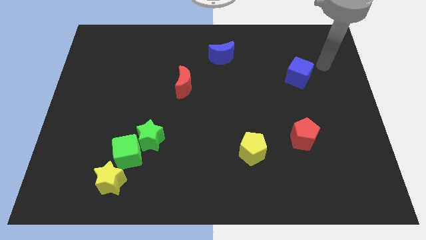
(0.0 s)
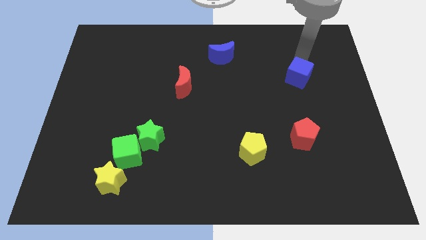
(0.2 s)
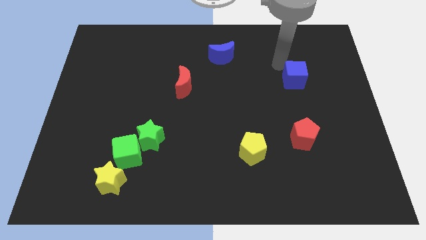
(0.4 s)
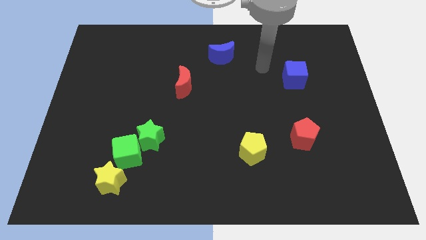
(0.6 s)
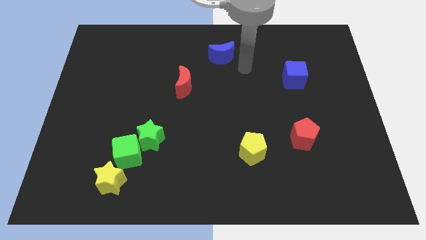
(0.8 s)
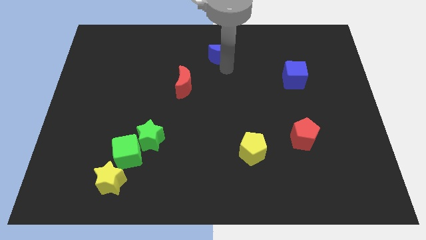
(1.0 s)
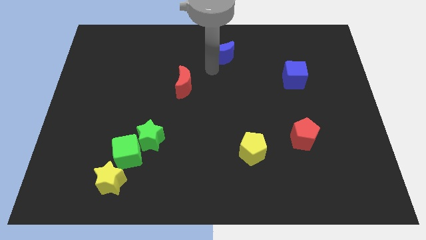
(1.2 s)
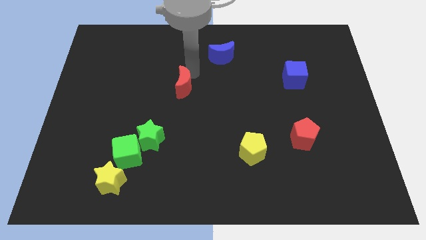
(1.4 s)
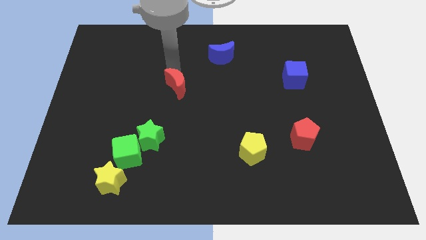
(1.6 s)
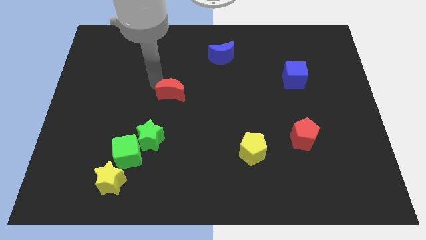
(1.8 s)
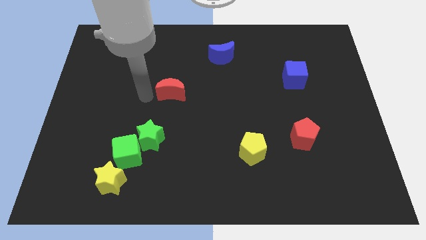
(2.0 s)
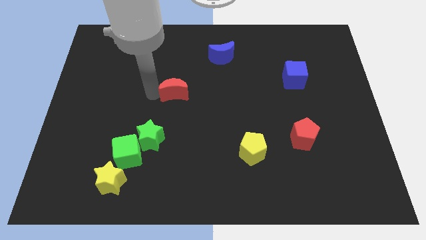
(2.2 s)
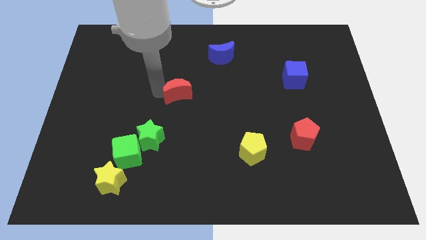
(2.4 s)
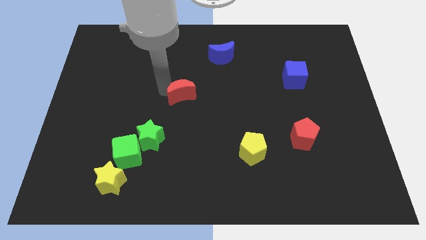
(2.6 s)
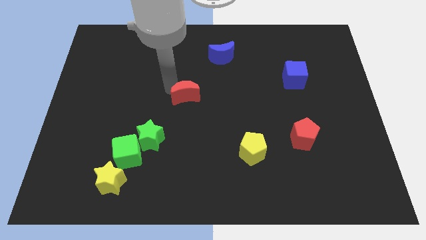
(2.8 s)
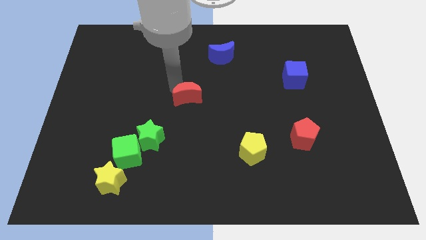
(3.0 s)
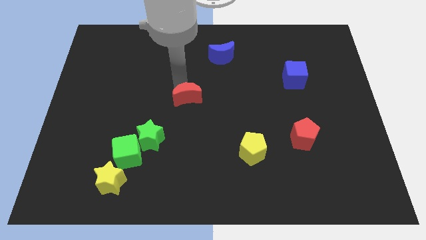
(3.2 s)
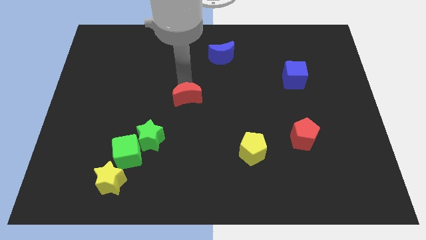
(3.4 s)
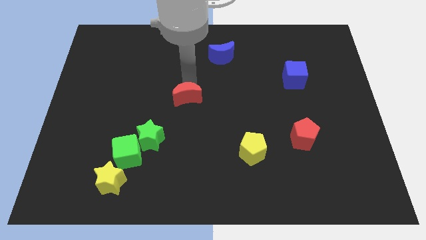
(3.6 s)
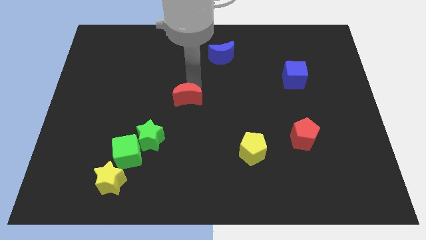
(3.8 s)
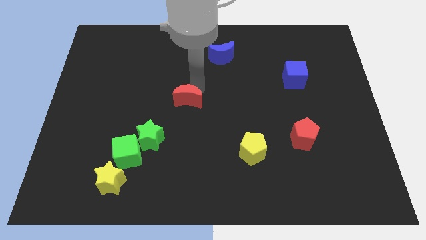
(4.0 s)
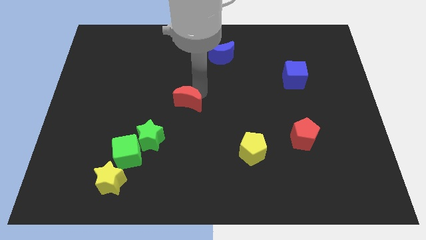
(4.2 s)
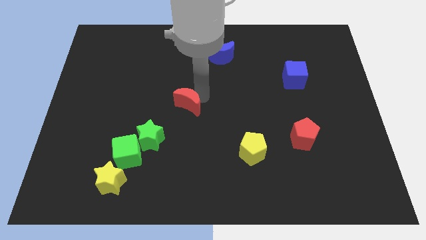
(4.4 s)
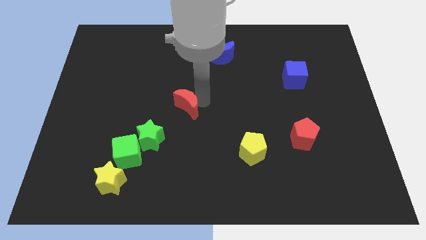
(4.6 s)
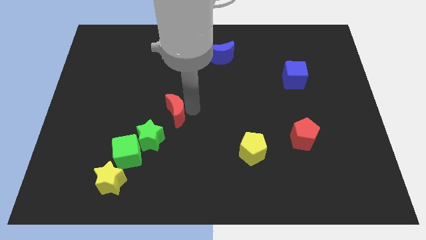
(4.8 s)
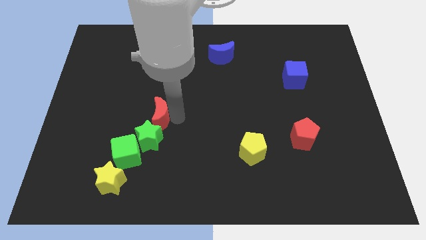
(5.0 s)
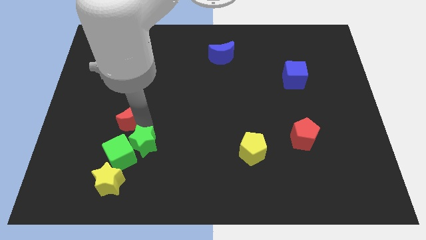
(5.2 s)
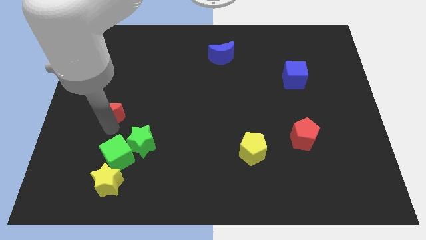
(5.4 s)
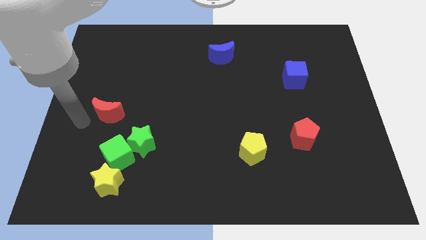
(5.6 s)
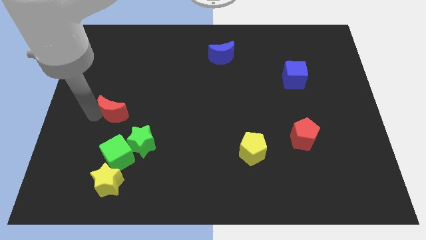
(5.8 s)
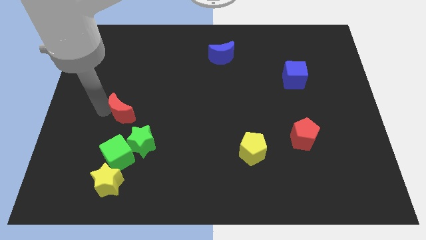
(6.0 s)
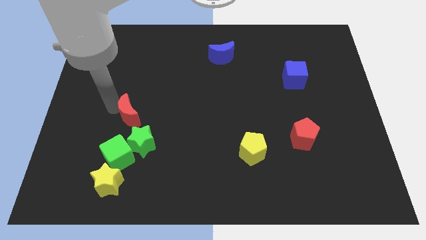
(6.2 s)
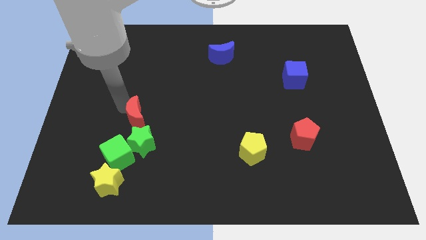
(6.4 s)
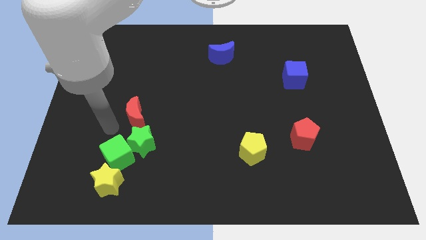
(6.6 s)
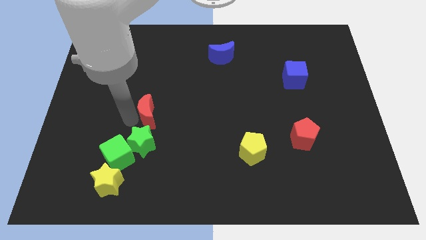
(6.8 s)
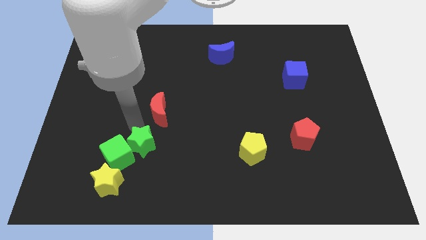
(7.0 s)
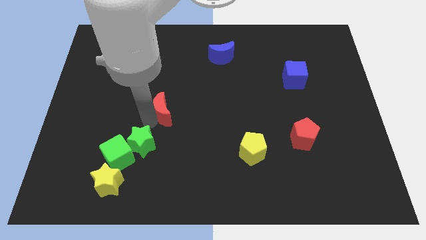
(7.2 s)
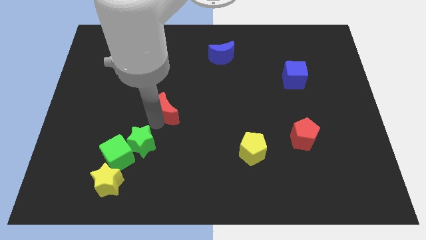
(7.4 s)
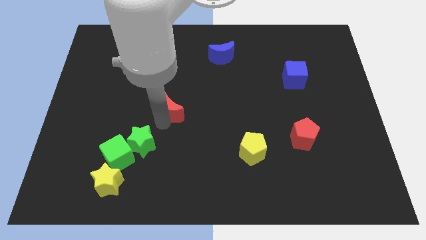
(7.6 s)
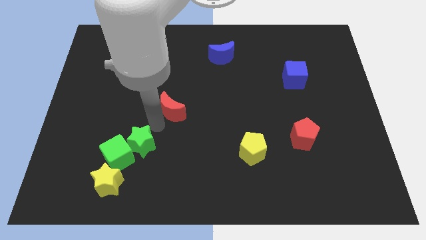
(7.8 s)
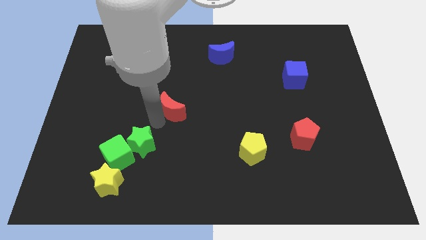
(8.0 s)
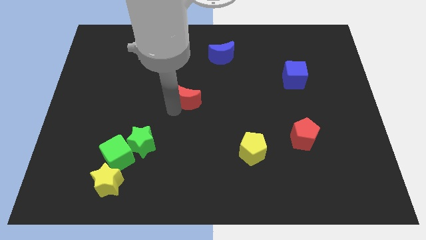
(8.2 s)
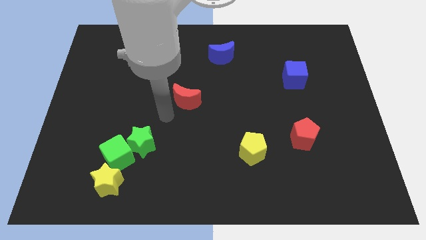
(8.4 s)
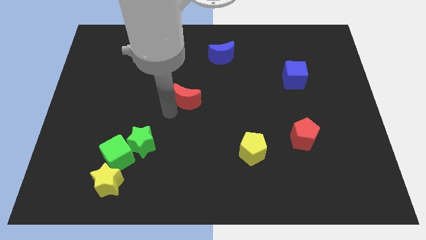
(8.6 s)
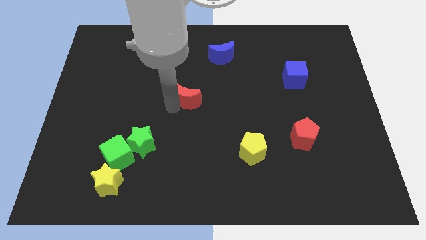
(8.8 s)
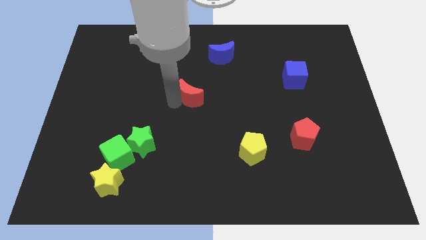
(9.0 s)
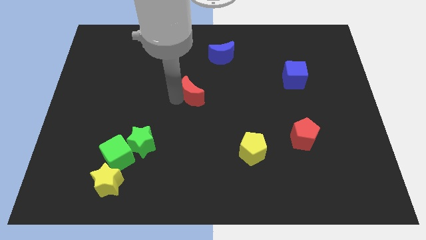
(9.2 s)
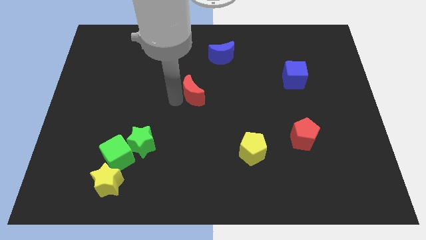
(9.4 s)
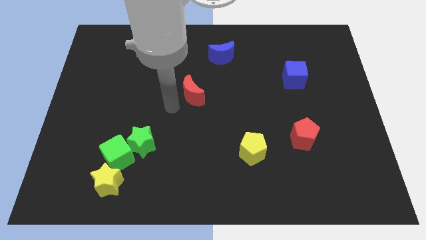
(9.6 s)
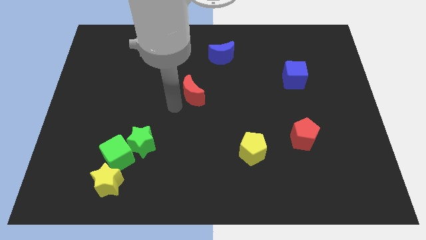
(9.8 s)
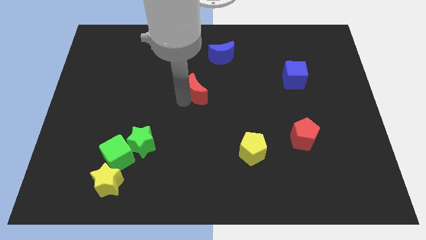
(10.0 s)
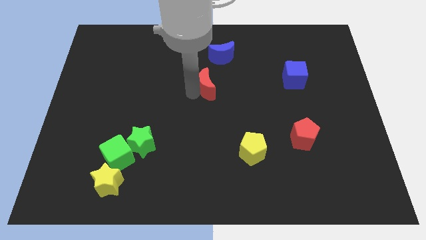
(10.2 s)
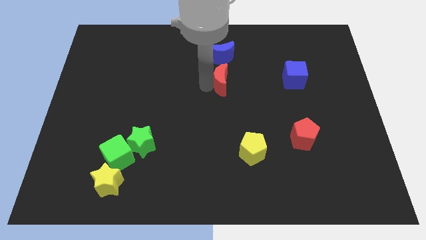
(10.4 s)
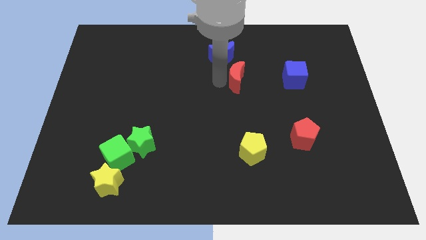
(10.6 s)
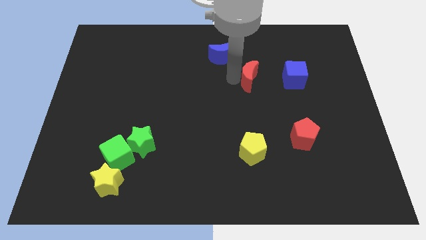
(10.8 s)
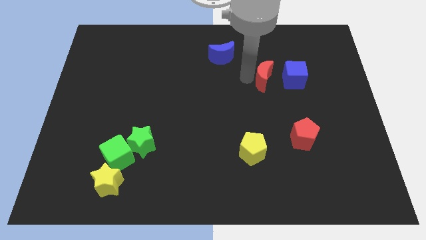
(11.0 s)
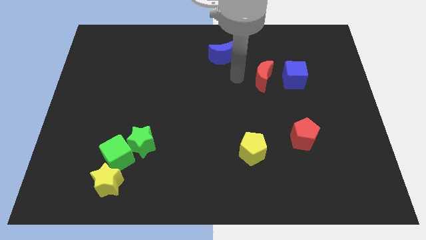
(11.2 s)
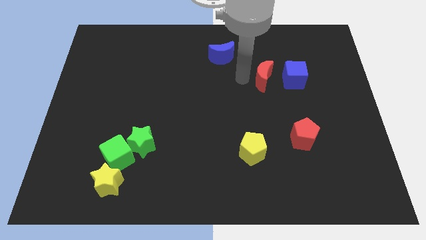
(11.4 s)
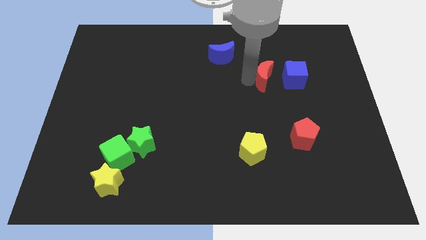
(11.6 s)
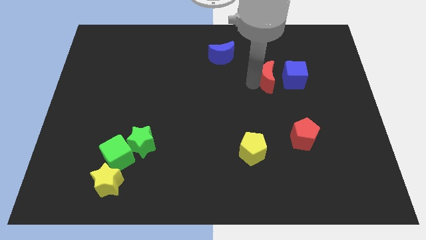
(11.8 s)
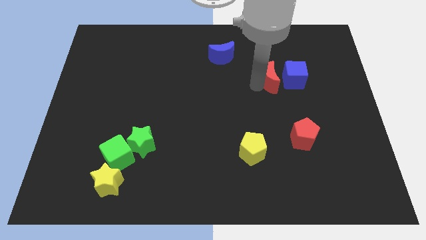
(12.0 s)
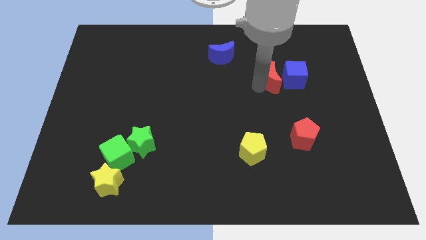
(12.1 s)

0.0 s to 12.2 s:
put the red moon to the blue cube

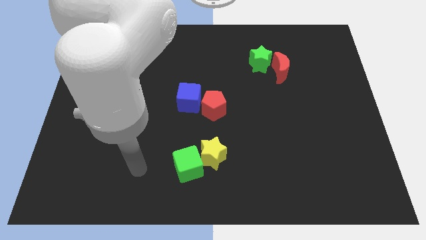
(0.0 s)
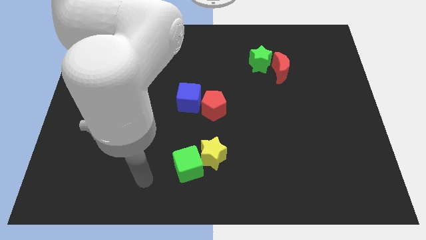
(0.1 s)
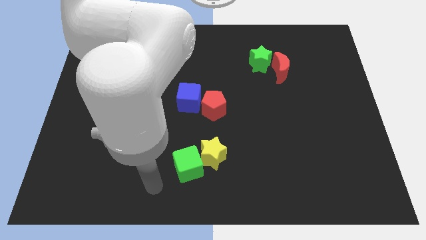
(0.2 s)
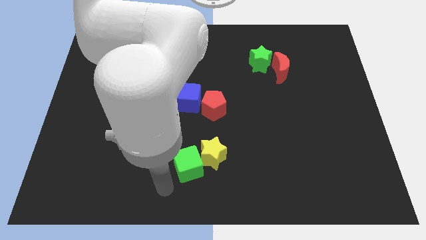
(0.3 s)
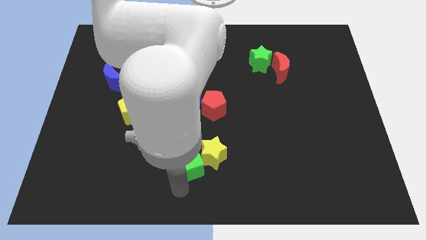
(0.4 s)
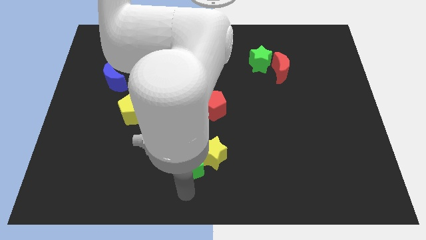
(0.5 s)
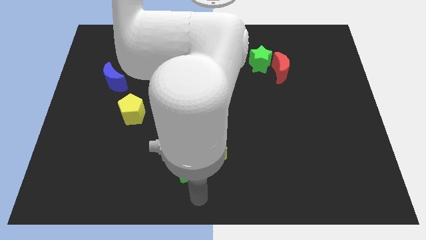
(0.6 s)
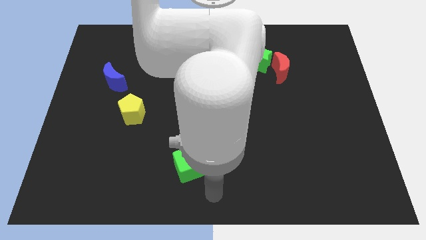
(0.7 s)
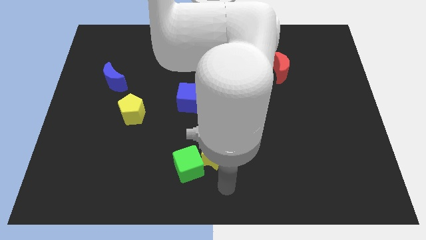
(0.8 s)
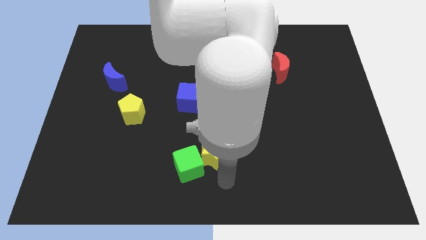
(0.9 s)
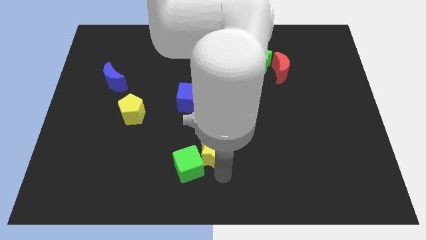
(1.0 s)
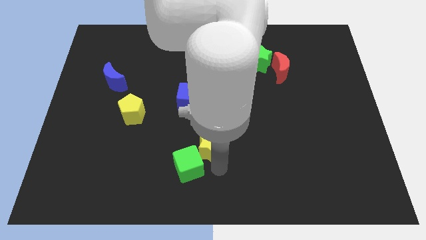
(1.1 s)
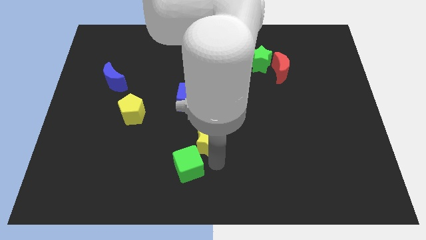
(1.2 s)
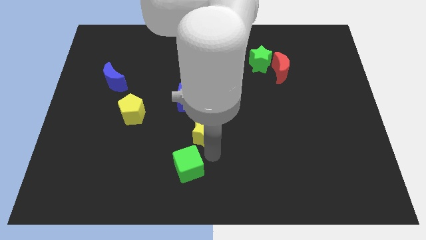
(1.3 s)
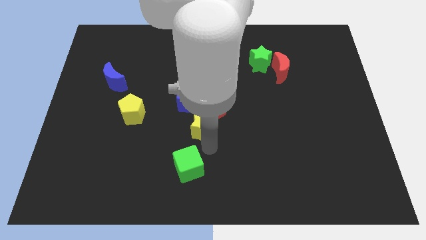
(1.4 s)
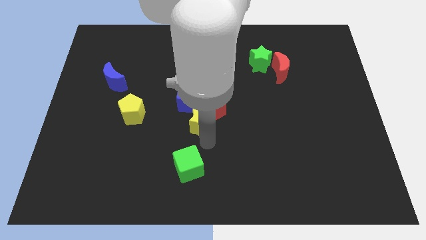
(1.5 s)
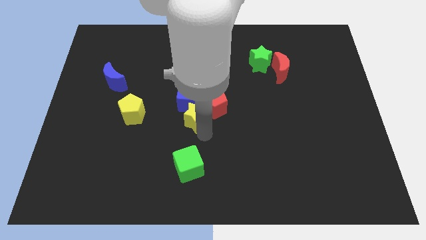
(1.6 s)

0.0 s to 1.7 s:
move the yellow star next to the blue cube
